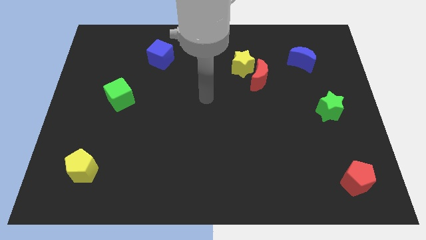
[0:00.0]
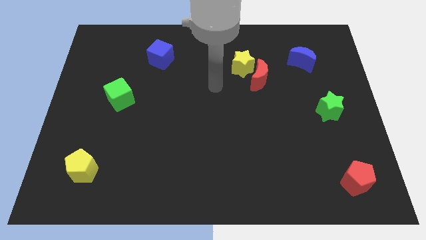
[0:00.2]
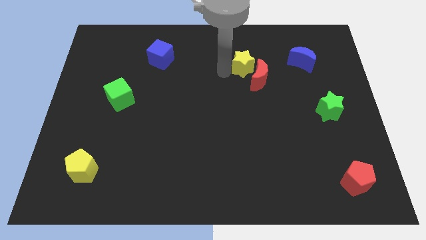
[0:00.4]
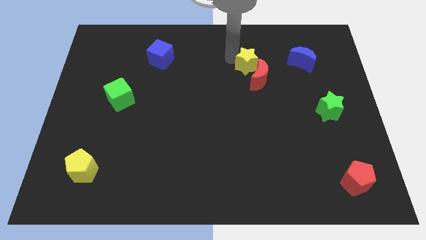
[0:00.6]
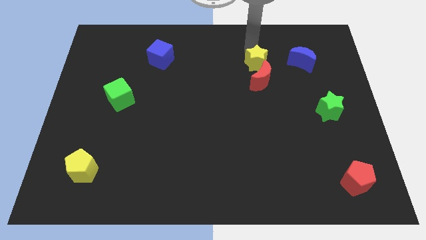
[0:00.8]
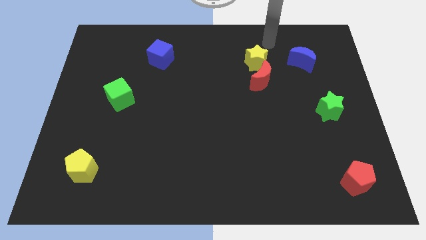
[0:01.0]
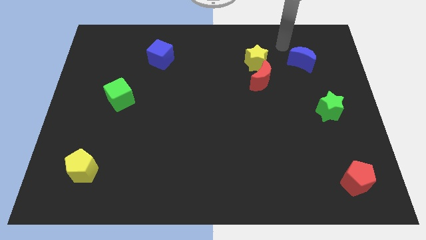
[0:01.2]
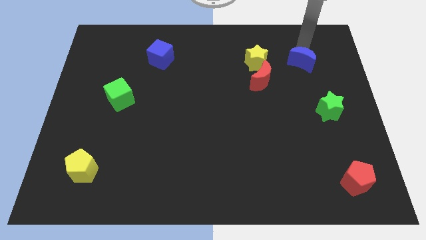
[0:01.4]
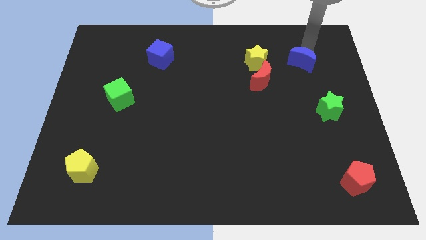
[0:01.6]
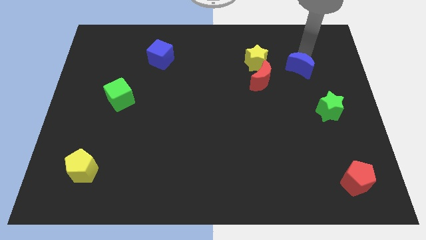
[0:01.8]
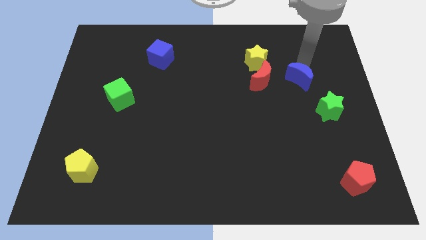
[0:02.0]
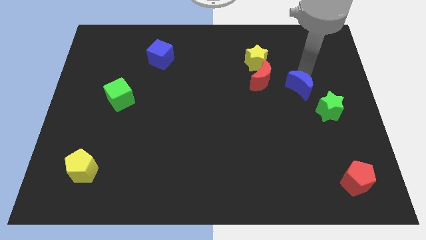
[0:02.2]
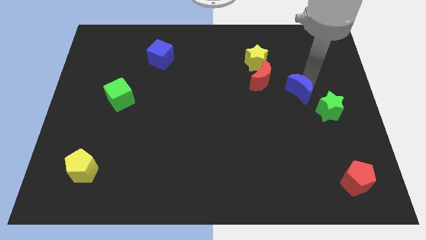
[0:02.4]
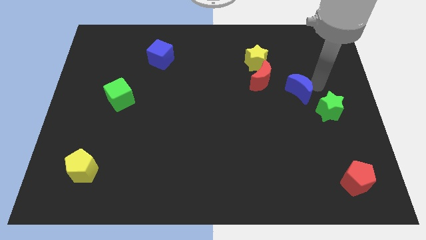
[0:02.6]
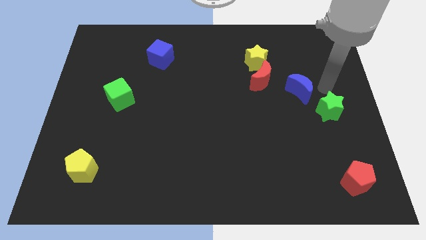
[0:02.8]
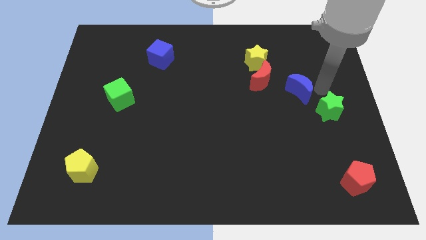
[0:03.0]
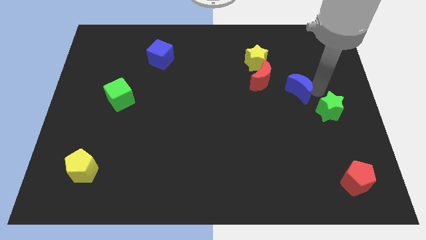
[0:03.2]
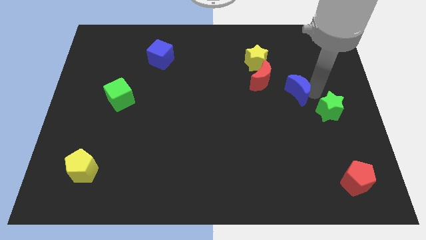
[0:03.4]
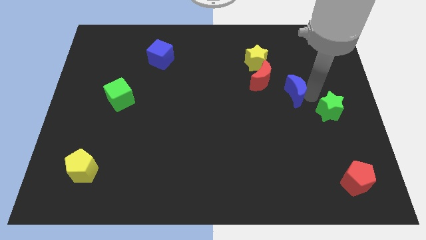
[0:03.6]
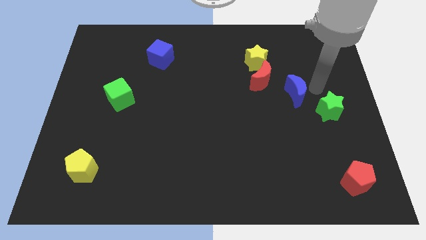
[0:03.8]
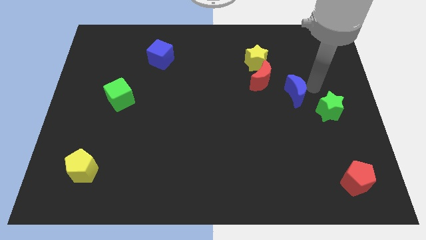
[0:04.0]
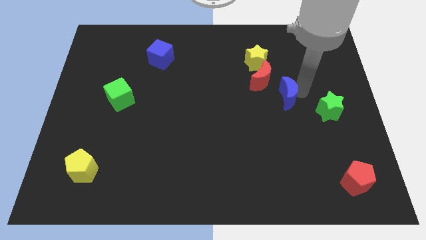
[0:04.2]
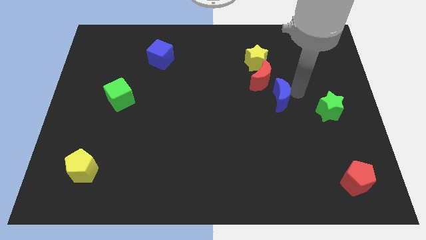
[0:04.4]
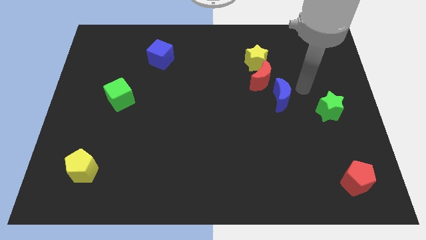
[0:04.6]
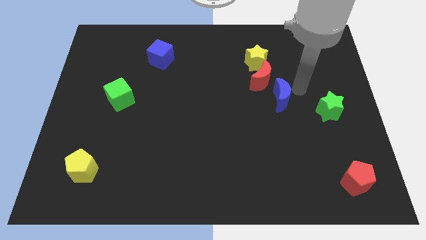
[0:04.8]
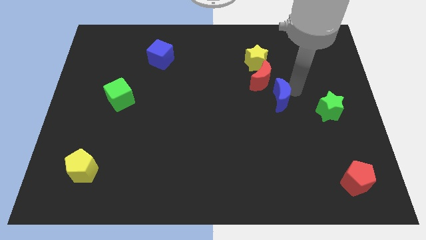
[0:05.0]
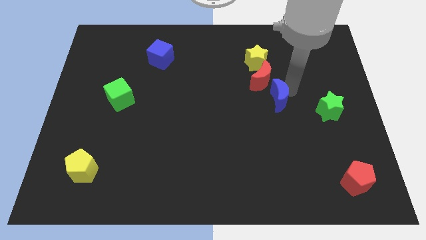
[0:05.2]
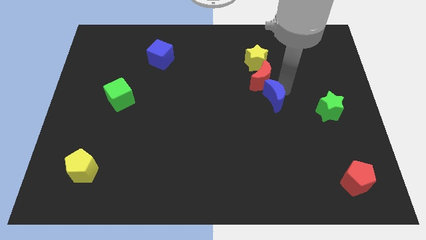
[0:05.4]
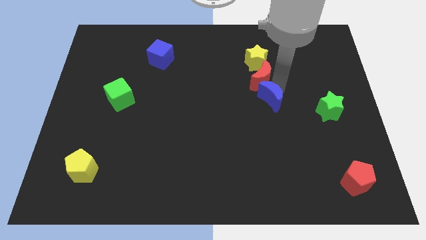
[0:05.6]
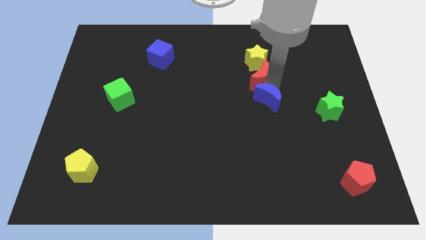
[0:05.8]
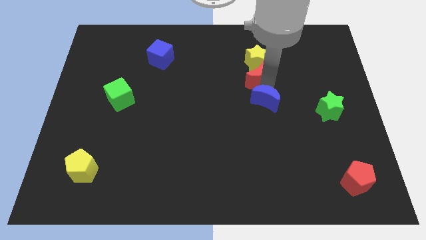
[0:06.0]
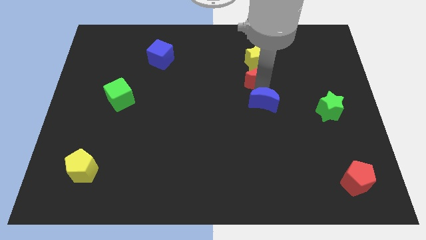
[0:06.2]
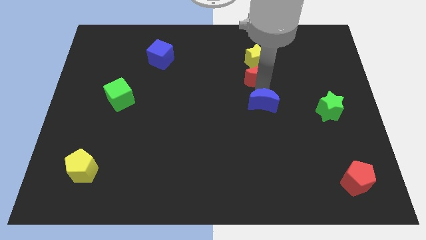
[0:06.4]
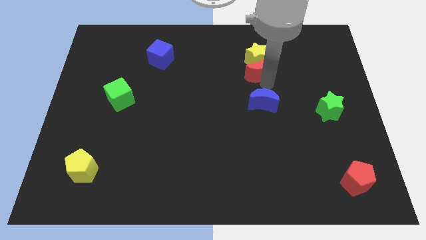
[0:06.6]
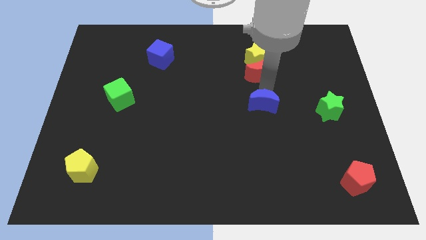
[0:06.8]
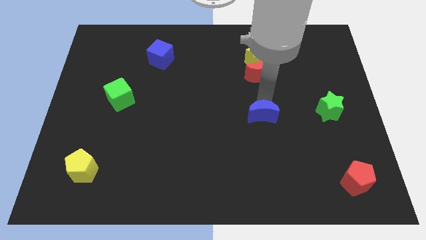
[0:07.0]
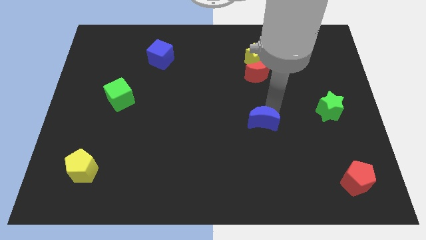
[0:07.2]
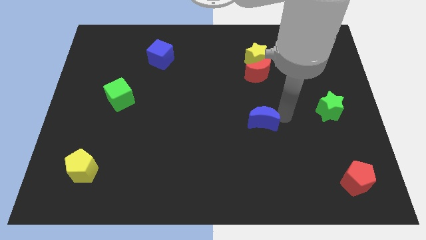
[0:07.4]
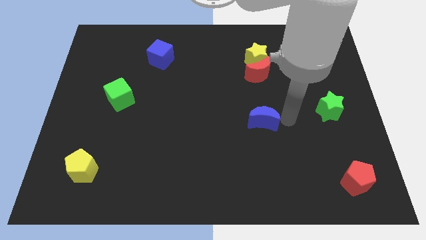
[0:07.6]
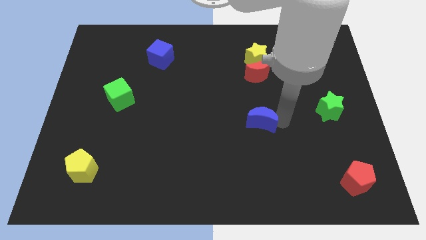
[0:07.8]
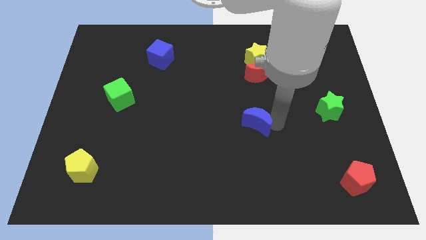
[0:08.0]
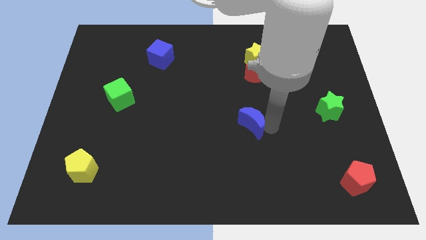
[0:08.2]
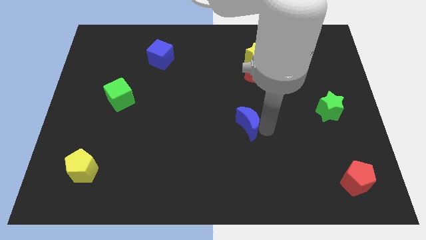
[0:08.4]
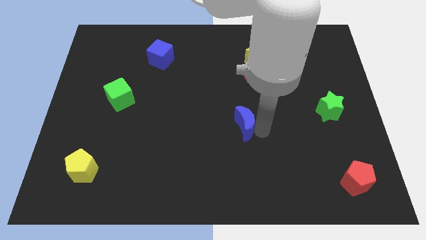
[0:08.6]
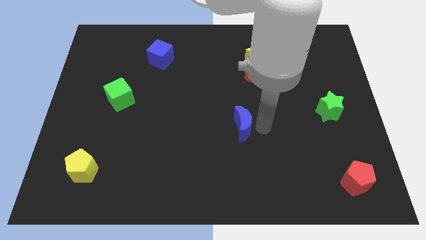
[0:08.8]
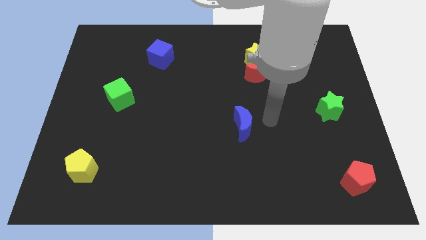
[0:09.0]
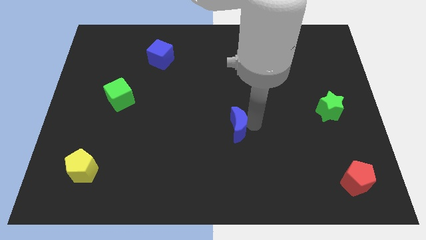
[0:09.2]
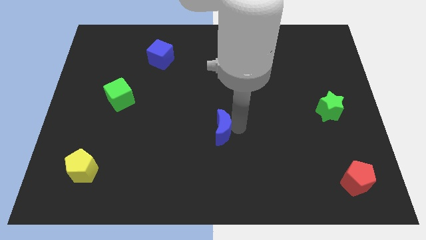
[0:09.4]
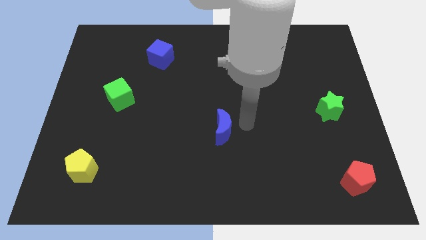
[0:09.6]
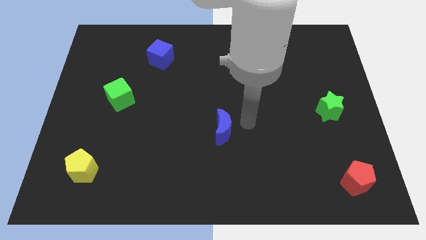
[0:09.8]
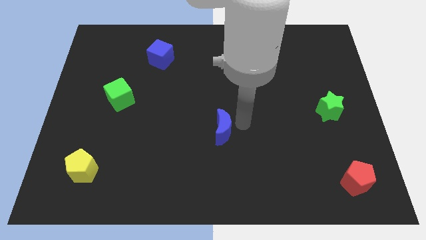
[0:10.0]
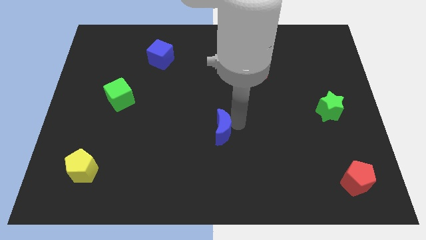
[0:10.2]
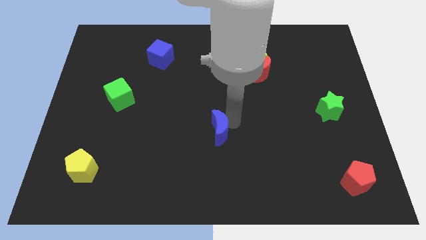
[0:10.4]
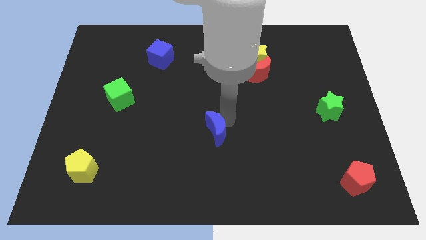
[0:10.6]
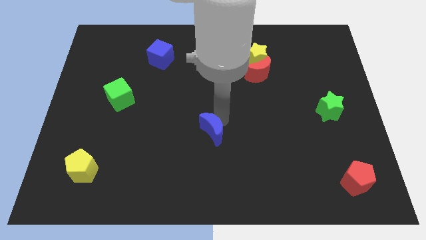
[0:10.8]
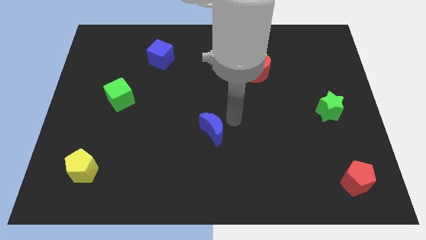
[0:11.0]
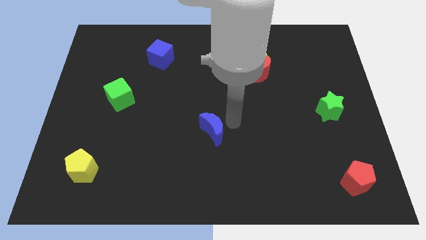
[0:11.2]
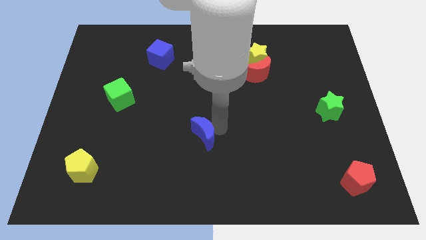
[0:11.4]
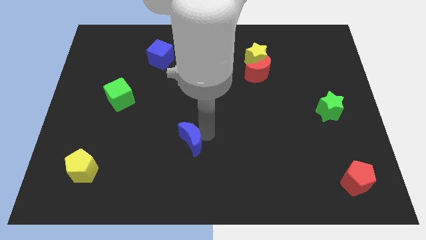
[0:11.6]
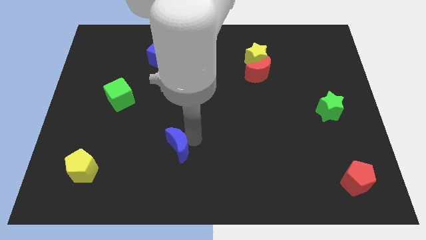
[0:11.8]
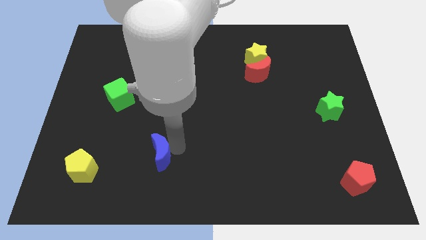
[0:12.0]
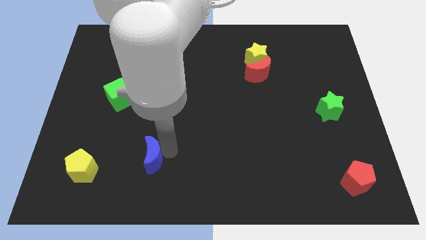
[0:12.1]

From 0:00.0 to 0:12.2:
push the blue moon to the right of the yellow pentagon
